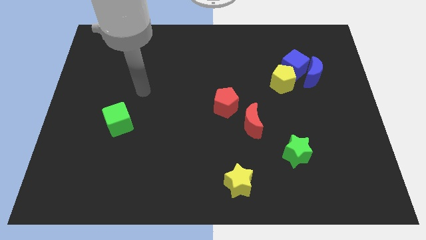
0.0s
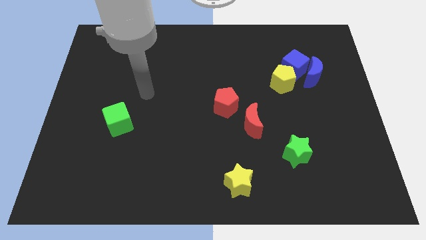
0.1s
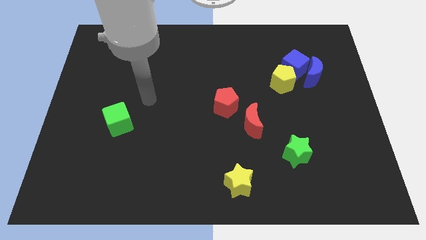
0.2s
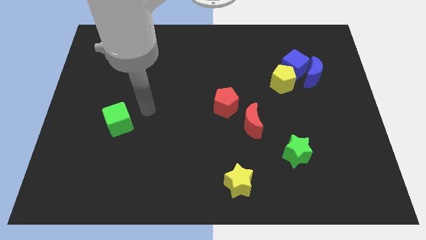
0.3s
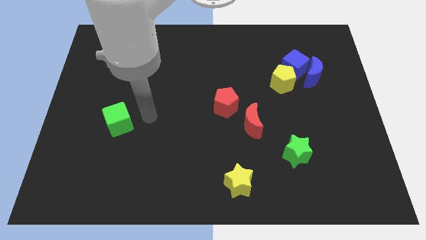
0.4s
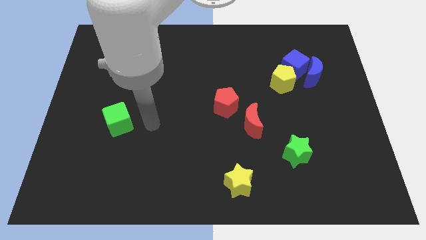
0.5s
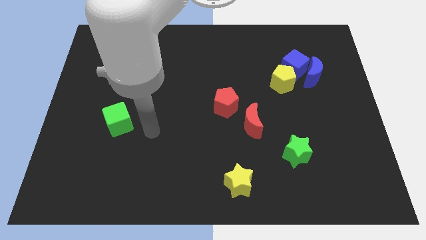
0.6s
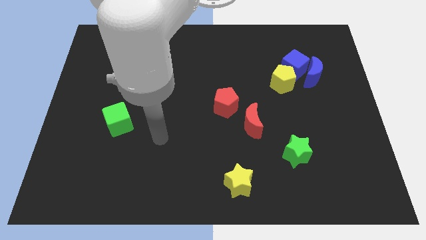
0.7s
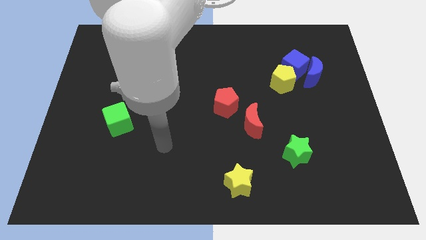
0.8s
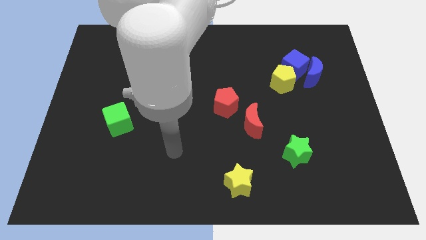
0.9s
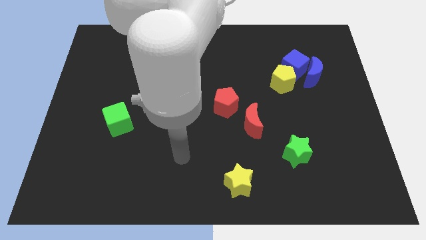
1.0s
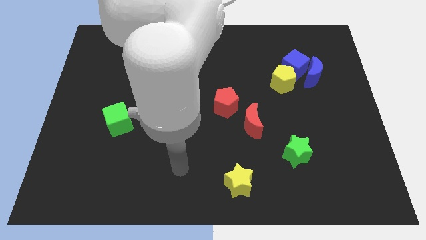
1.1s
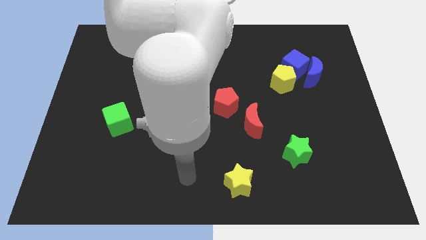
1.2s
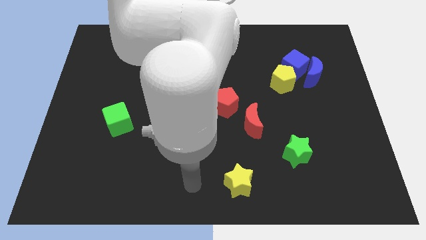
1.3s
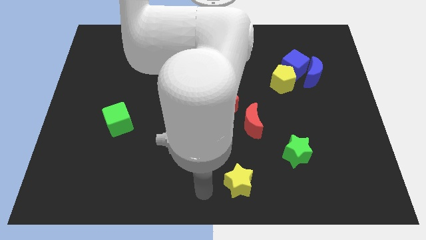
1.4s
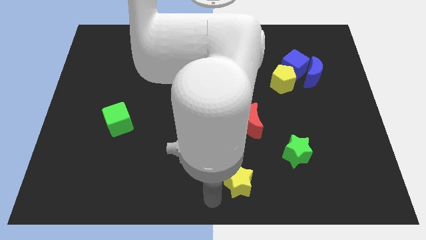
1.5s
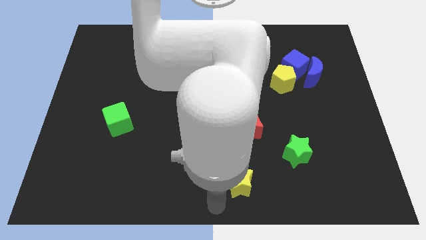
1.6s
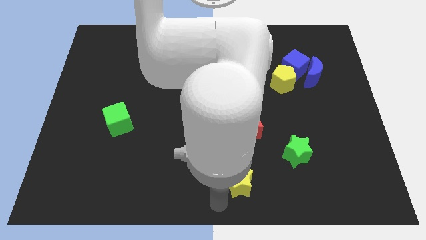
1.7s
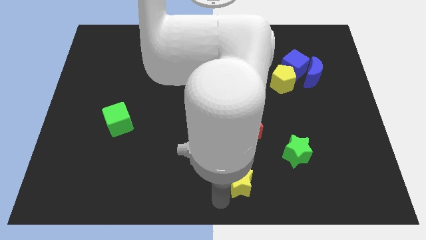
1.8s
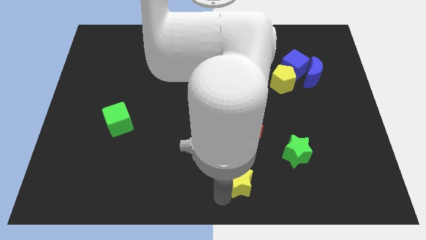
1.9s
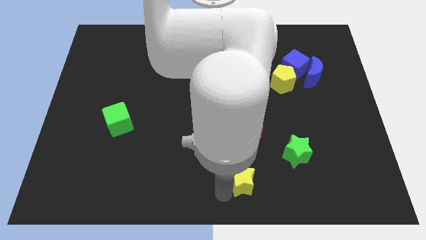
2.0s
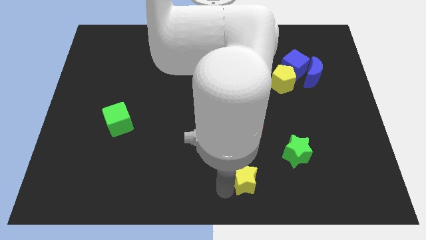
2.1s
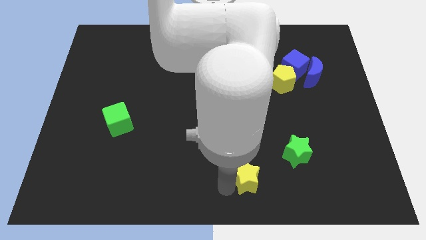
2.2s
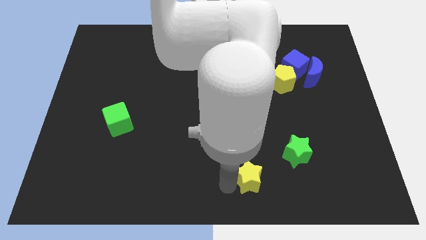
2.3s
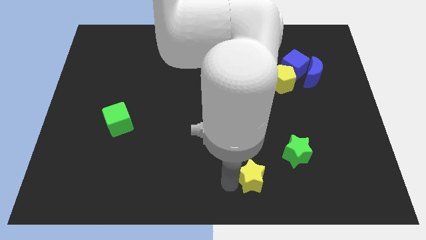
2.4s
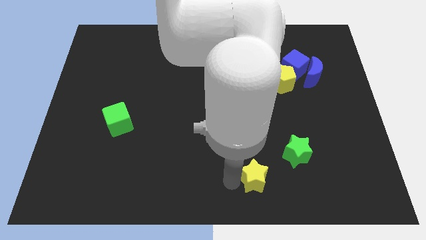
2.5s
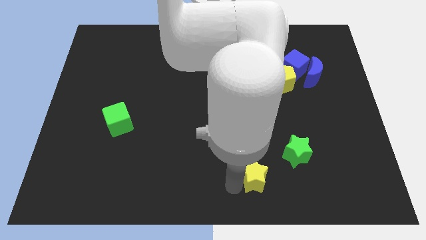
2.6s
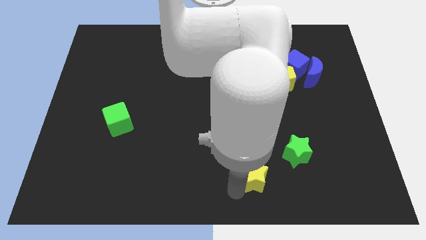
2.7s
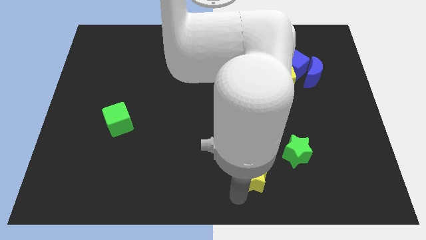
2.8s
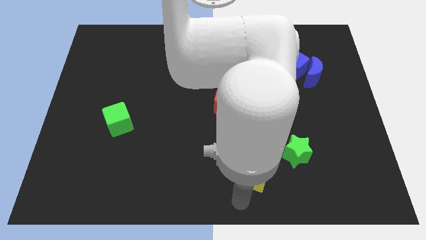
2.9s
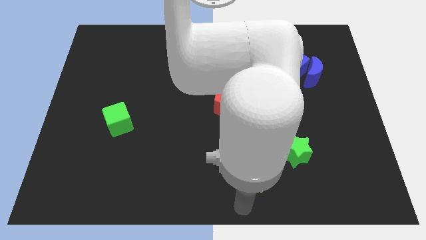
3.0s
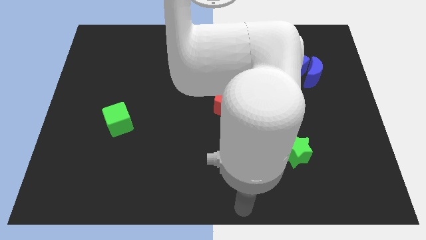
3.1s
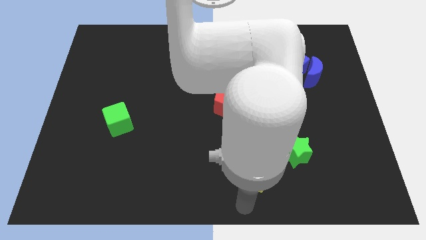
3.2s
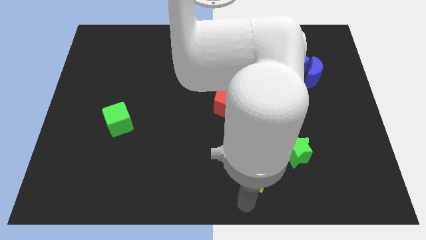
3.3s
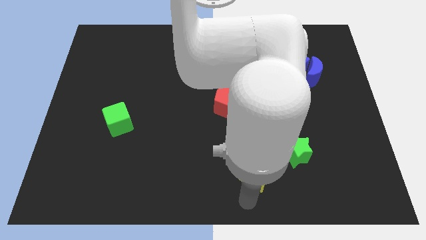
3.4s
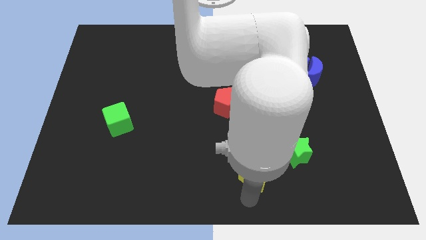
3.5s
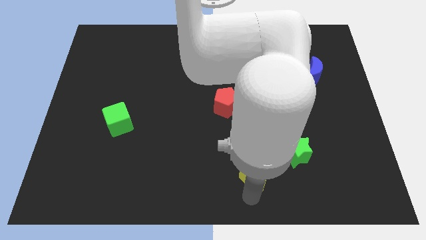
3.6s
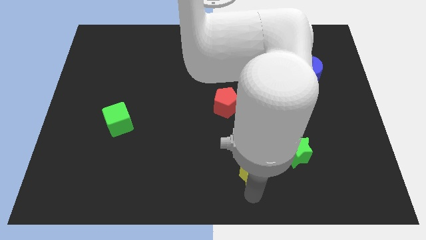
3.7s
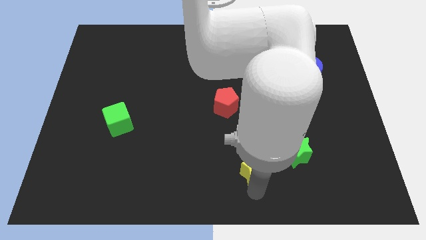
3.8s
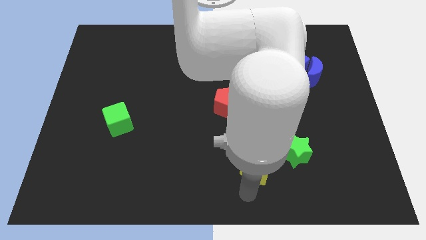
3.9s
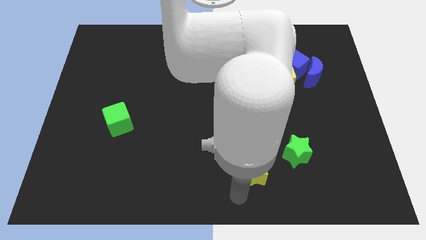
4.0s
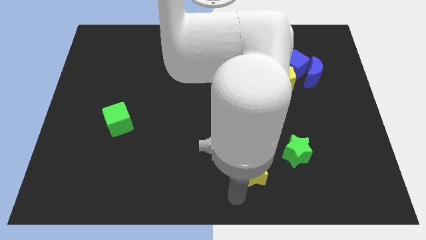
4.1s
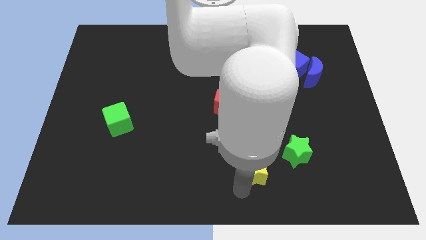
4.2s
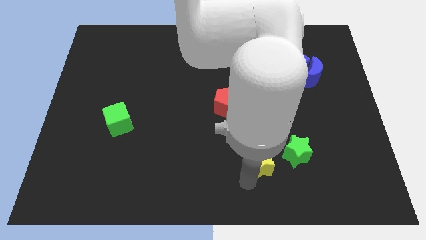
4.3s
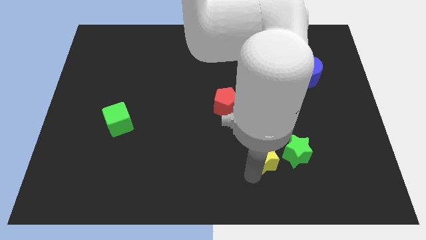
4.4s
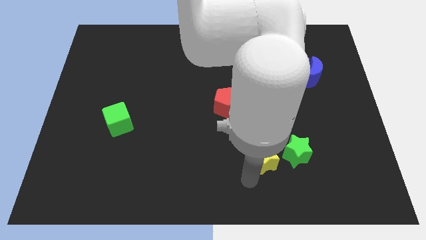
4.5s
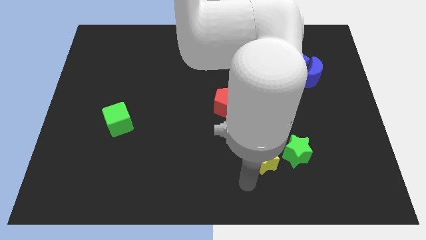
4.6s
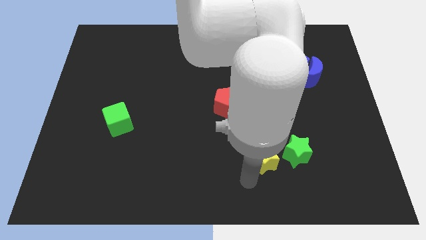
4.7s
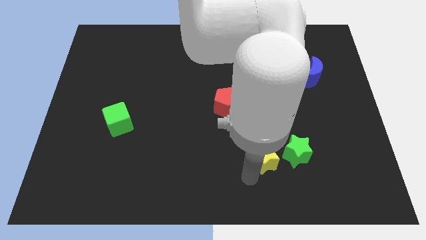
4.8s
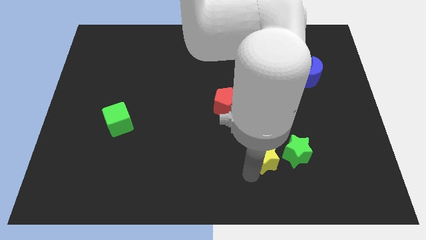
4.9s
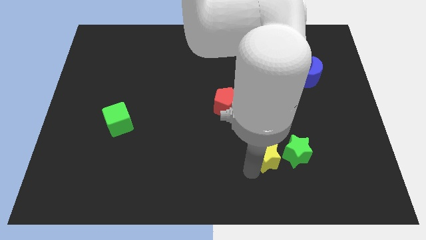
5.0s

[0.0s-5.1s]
move the yellow star diagonally down and to the right of the red moon

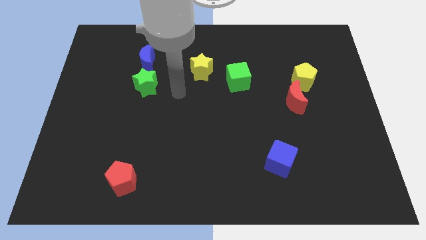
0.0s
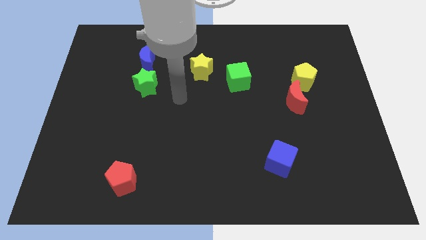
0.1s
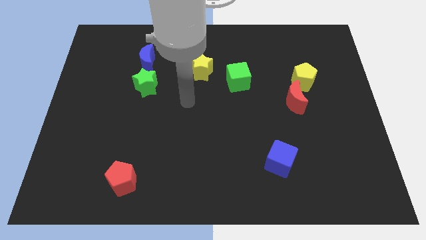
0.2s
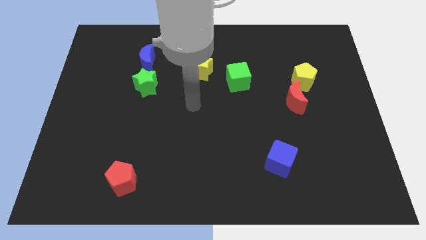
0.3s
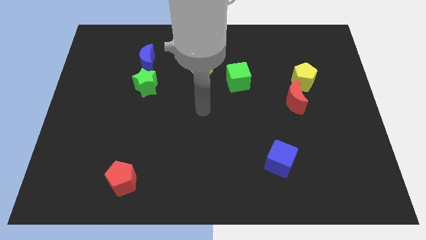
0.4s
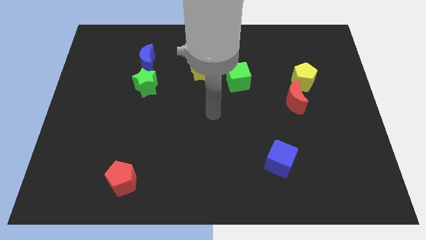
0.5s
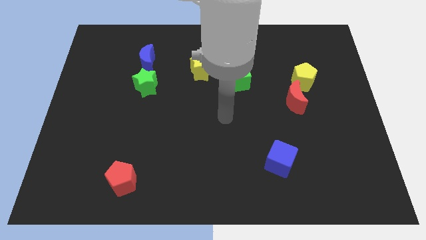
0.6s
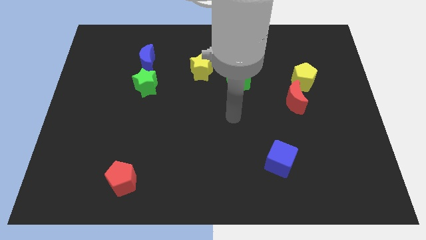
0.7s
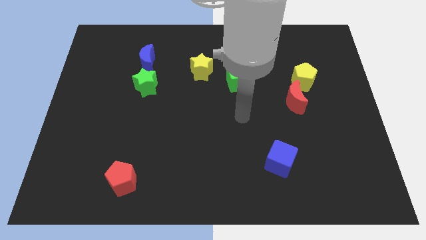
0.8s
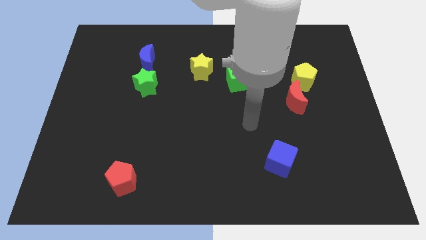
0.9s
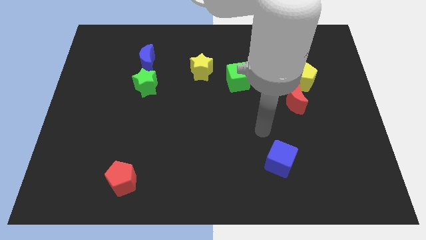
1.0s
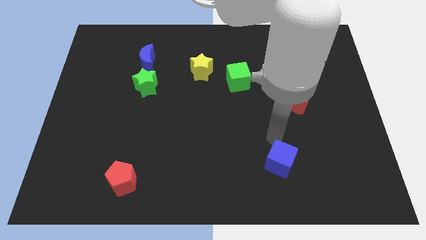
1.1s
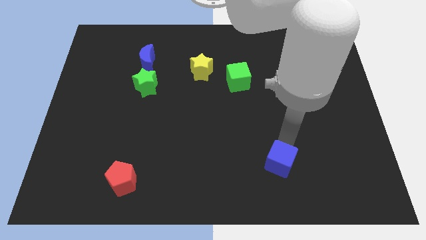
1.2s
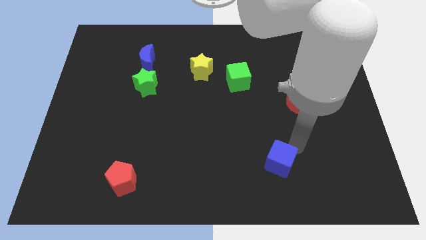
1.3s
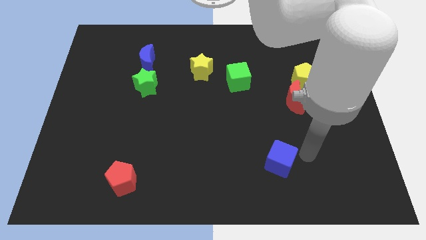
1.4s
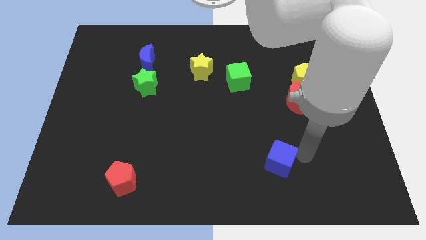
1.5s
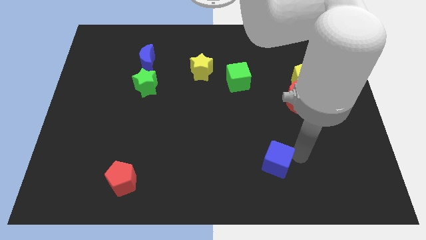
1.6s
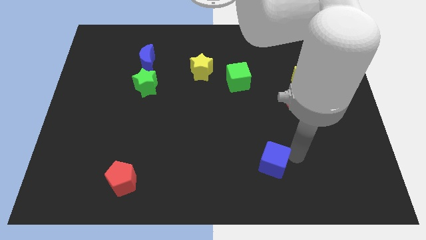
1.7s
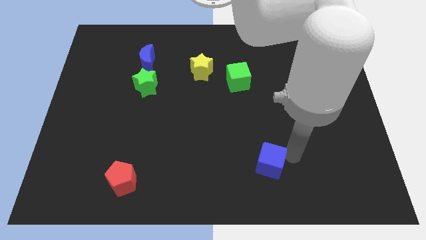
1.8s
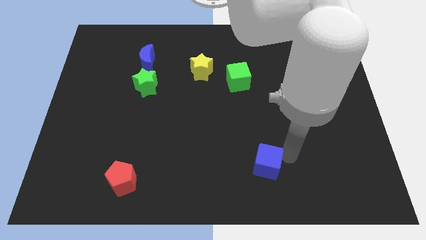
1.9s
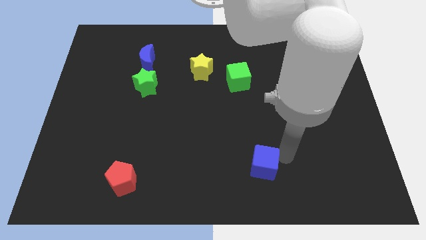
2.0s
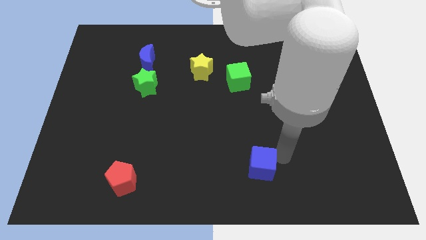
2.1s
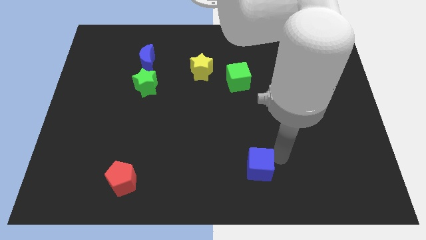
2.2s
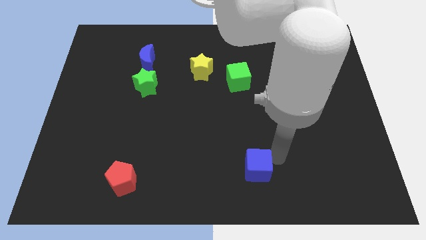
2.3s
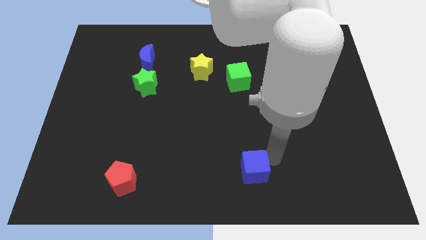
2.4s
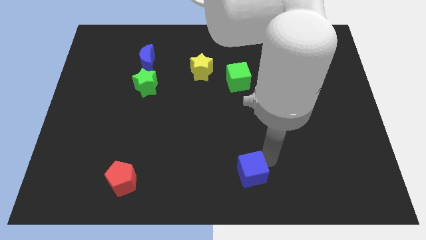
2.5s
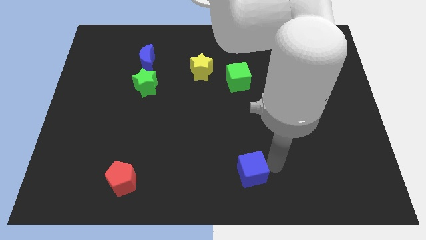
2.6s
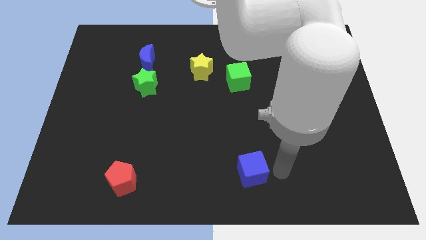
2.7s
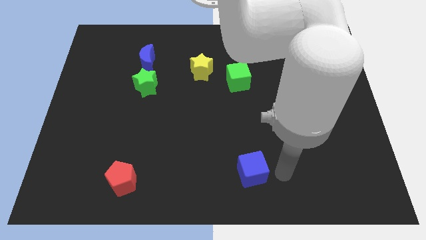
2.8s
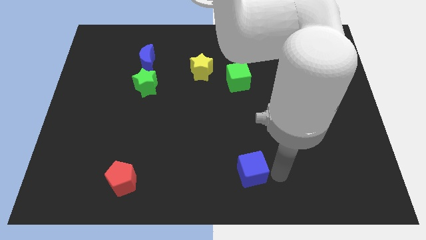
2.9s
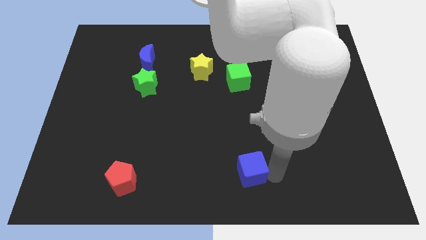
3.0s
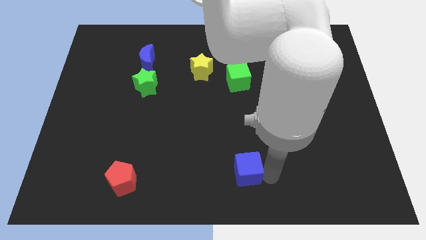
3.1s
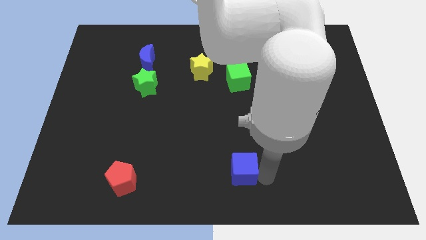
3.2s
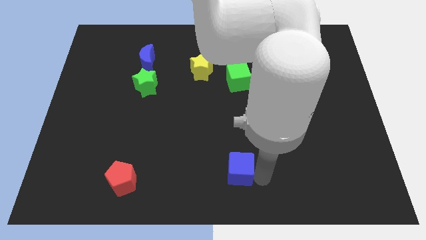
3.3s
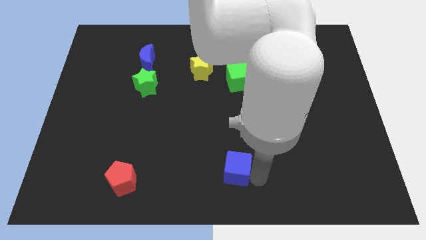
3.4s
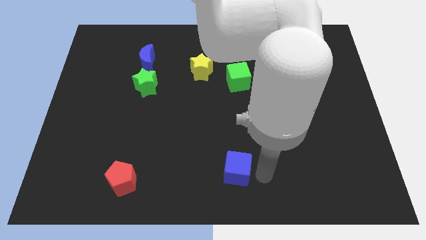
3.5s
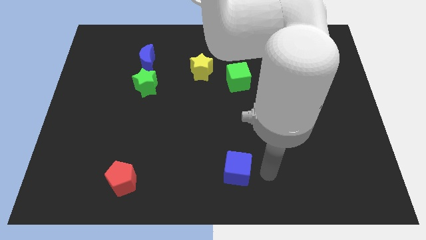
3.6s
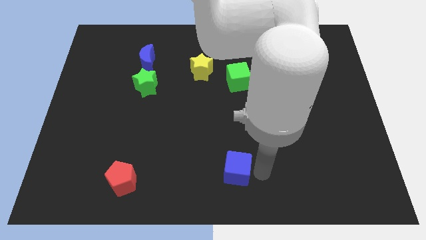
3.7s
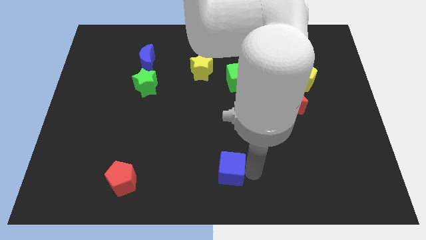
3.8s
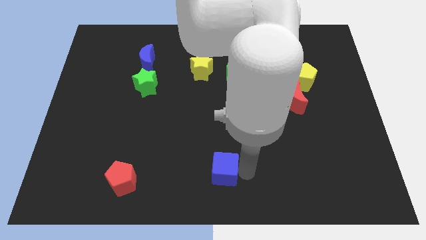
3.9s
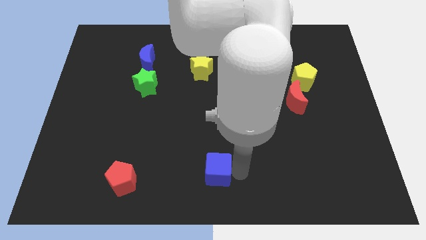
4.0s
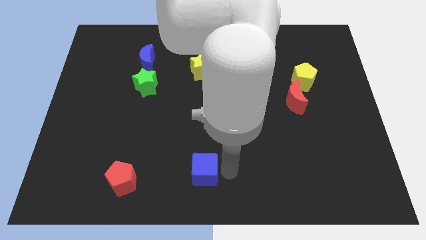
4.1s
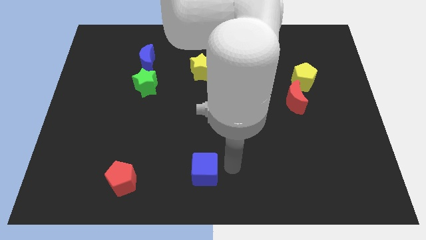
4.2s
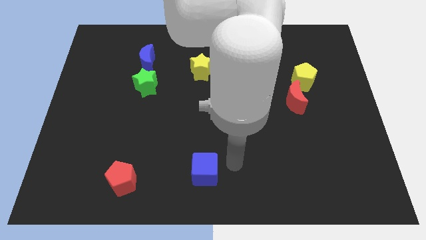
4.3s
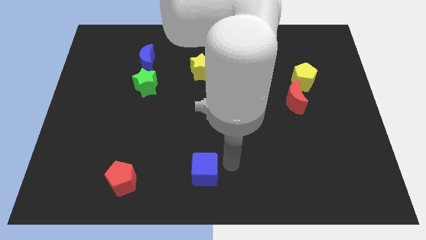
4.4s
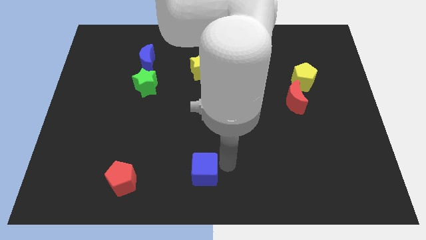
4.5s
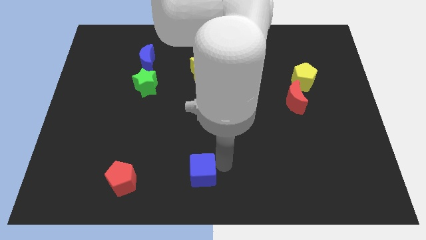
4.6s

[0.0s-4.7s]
move the blue cube to the right side of the red pentagon
